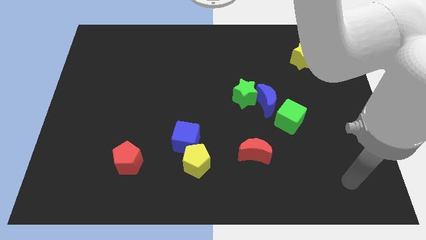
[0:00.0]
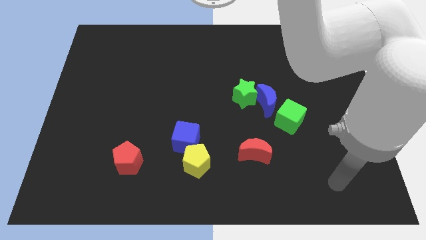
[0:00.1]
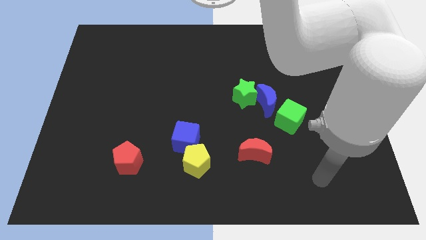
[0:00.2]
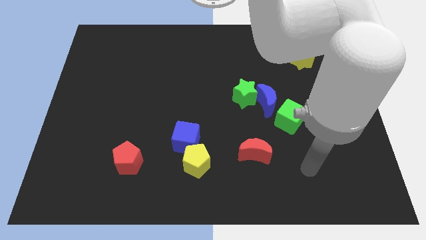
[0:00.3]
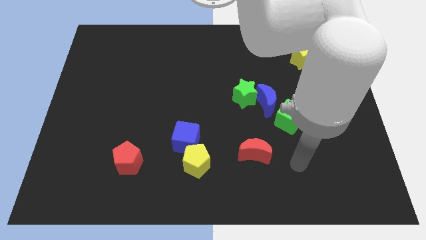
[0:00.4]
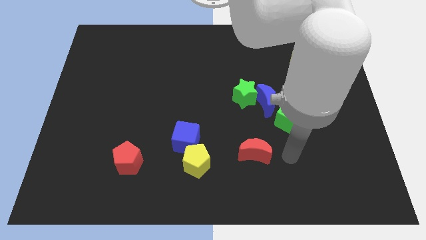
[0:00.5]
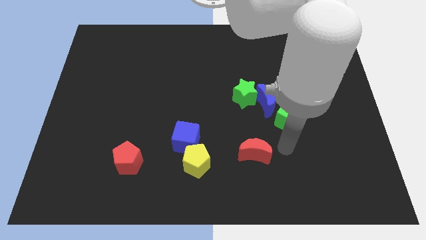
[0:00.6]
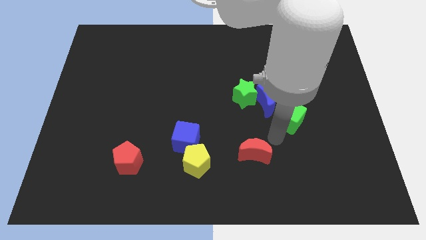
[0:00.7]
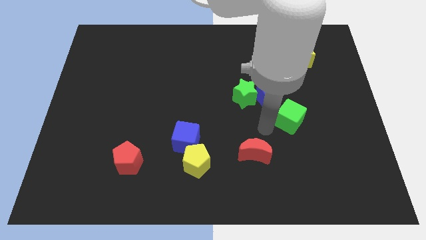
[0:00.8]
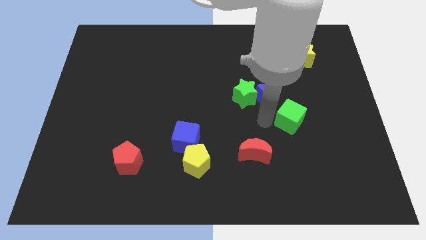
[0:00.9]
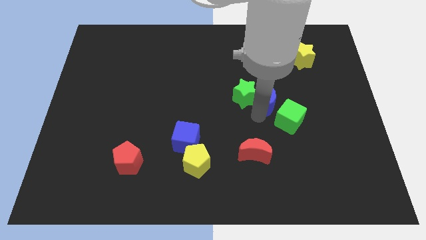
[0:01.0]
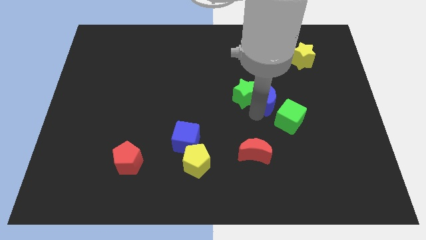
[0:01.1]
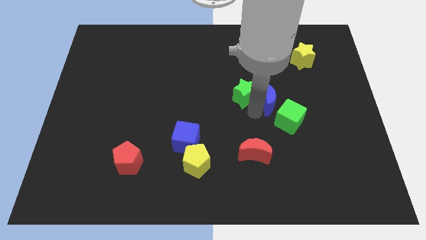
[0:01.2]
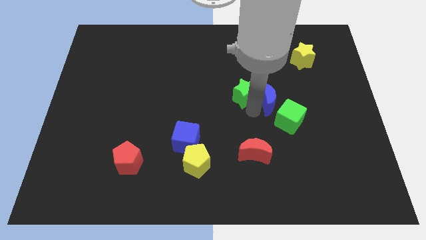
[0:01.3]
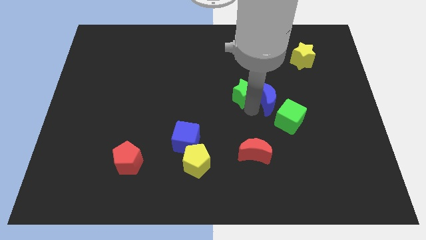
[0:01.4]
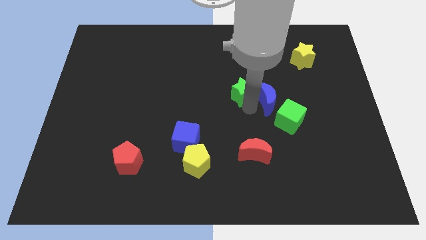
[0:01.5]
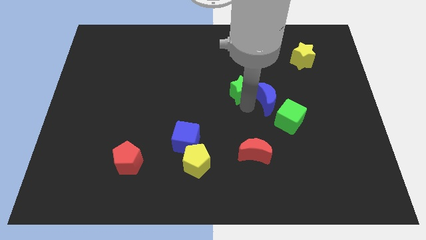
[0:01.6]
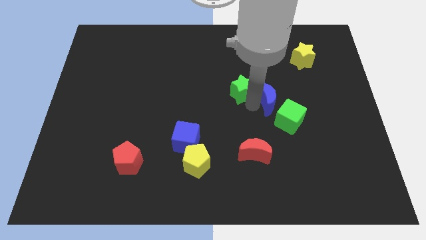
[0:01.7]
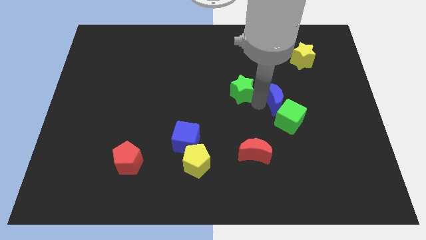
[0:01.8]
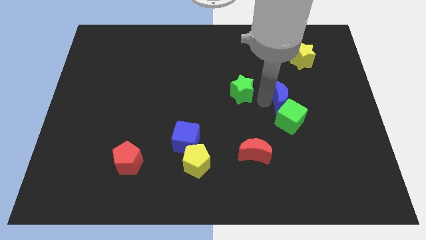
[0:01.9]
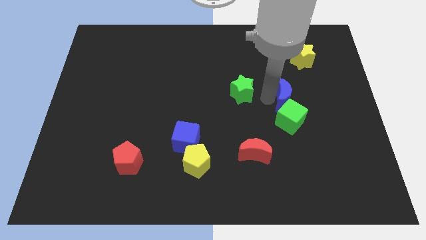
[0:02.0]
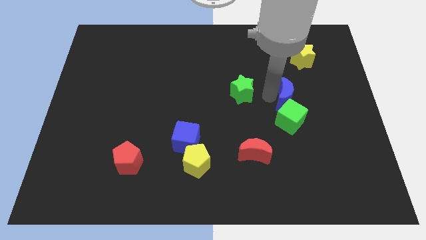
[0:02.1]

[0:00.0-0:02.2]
separate the green star from the blue moon

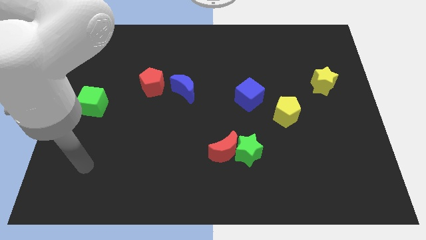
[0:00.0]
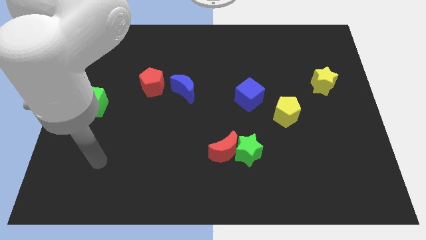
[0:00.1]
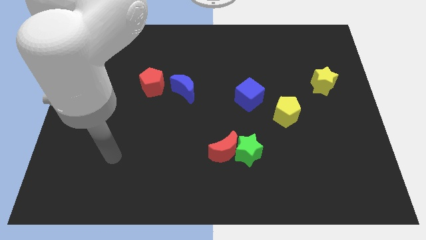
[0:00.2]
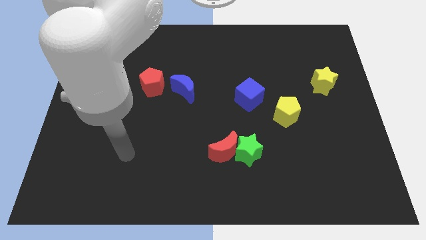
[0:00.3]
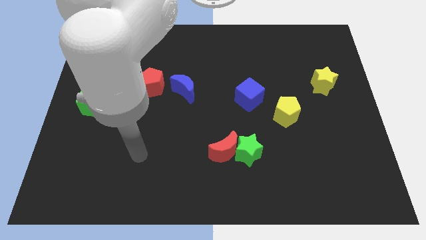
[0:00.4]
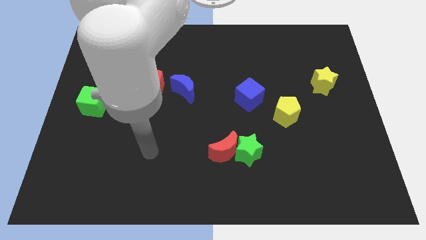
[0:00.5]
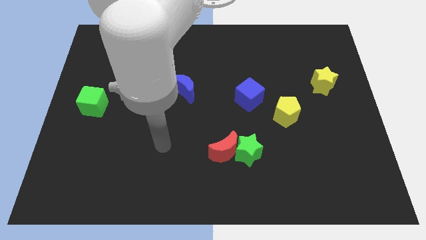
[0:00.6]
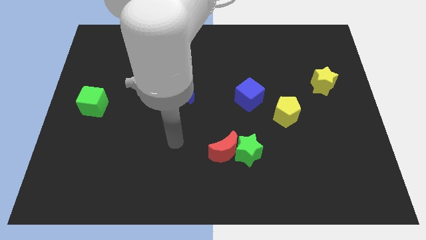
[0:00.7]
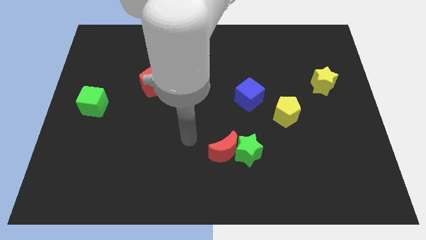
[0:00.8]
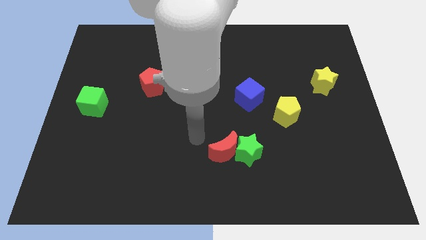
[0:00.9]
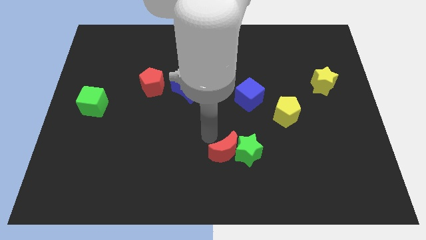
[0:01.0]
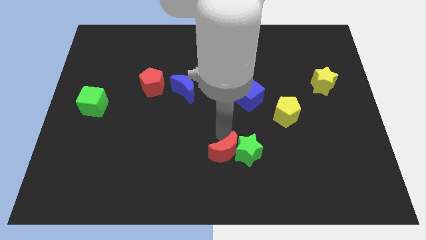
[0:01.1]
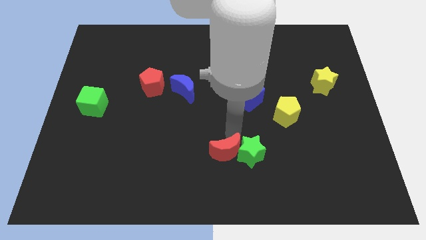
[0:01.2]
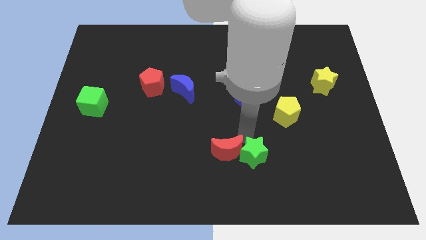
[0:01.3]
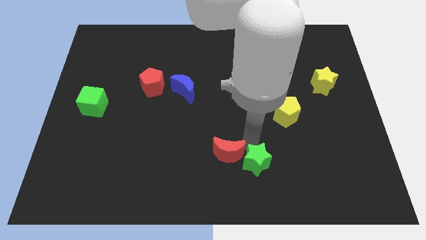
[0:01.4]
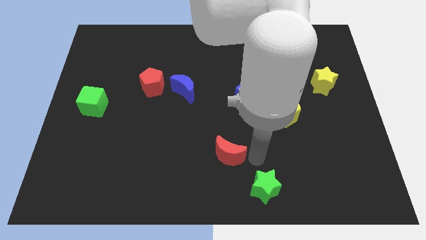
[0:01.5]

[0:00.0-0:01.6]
move the red moon away from the green star

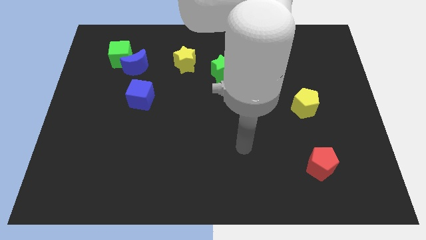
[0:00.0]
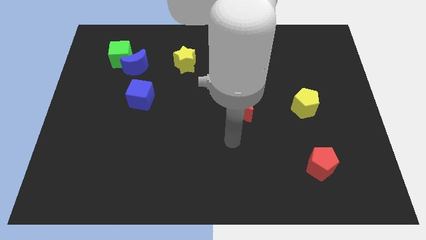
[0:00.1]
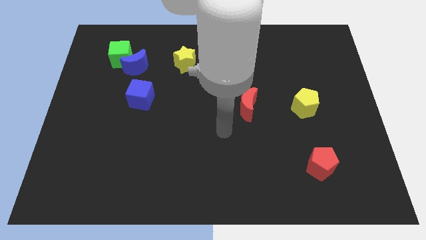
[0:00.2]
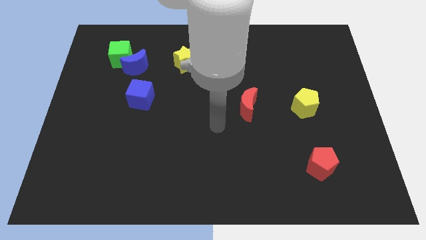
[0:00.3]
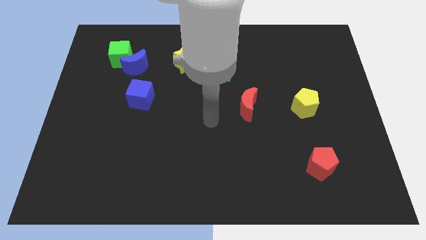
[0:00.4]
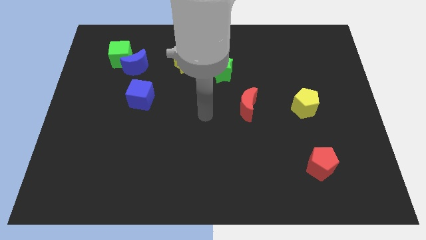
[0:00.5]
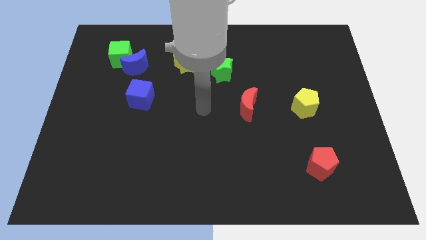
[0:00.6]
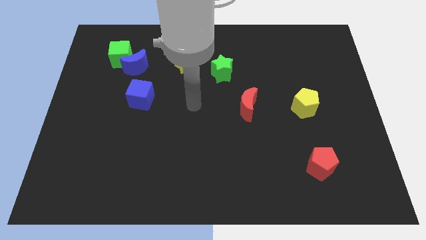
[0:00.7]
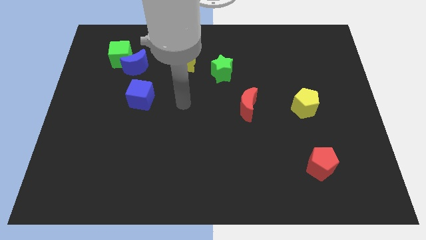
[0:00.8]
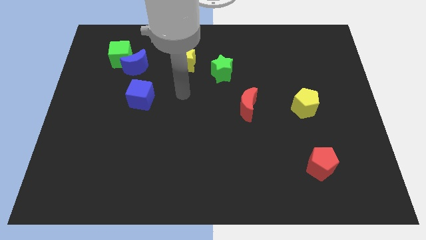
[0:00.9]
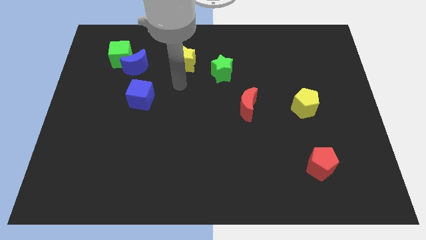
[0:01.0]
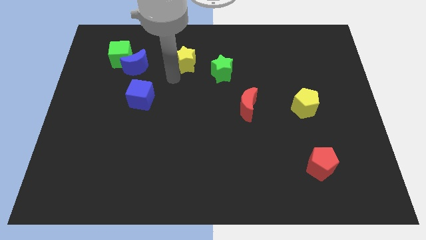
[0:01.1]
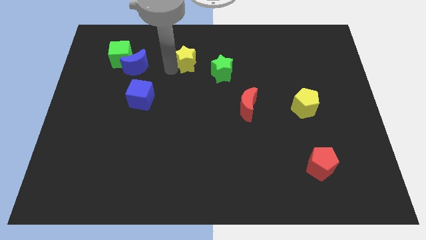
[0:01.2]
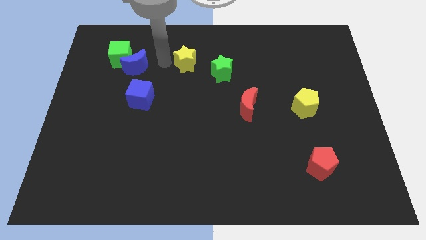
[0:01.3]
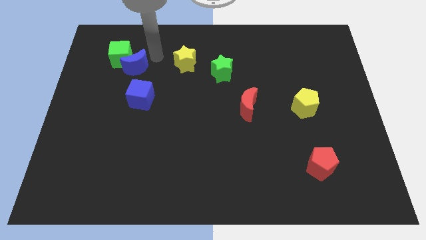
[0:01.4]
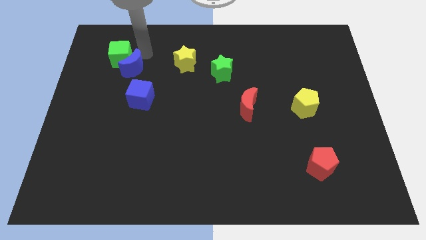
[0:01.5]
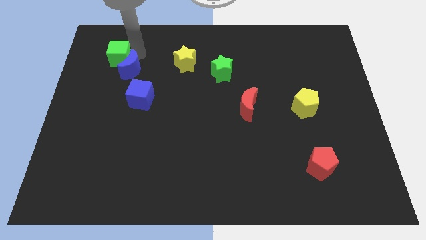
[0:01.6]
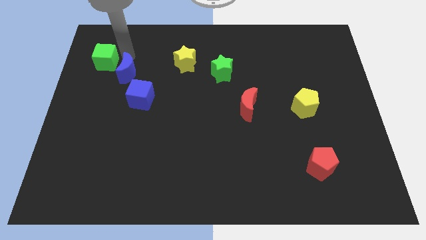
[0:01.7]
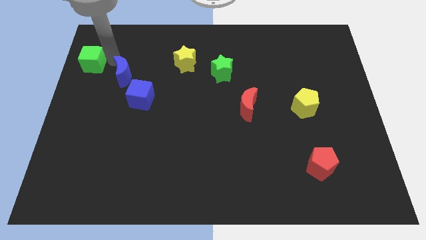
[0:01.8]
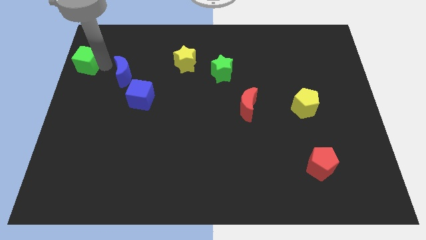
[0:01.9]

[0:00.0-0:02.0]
separate the blue moon from the green cube

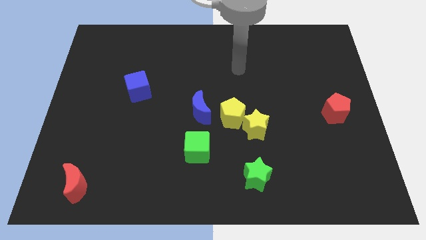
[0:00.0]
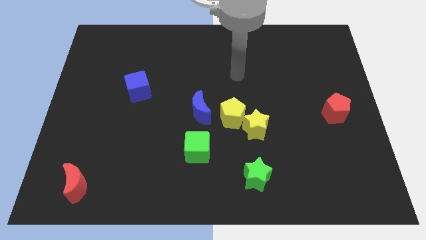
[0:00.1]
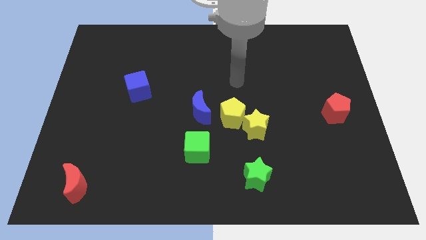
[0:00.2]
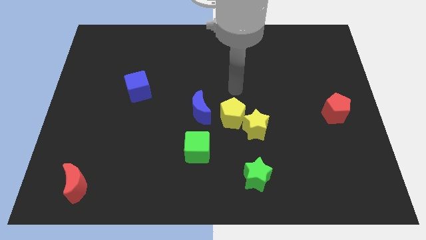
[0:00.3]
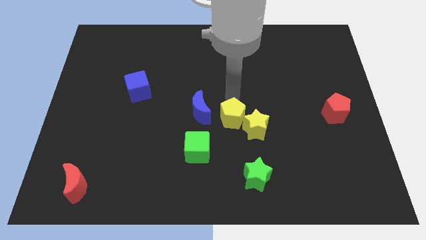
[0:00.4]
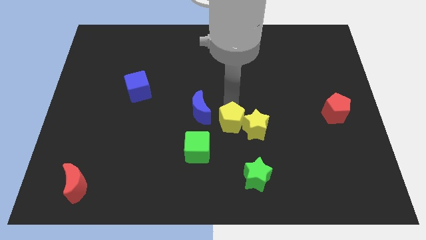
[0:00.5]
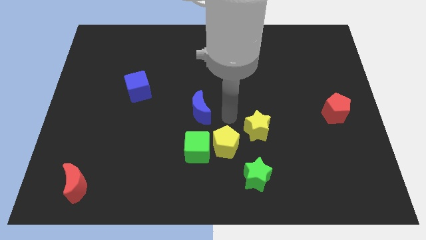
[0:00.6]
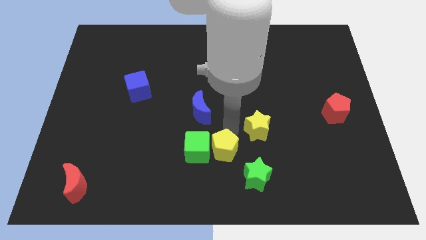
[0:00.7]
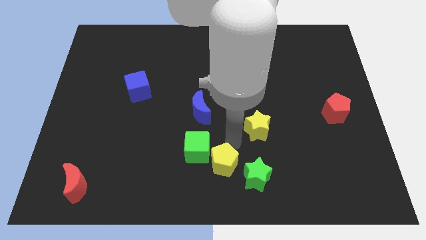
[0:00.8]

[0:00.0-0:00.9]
pull the yellow star apart from the yellow pentagon

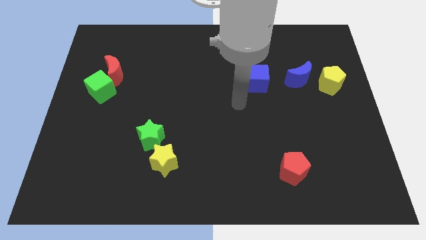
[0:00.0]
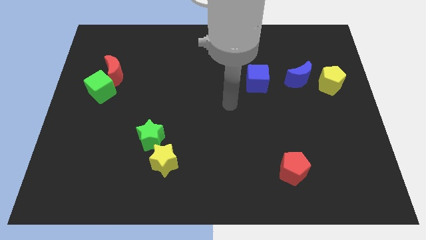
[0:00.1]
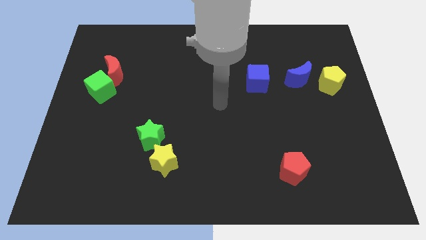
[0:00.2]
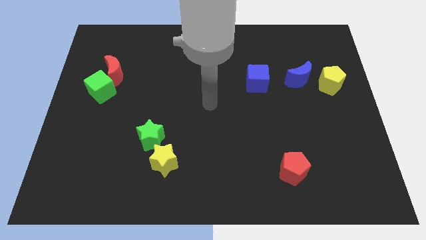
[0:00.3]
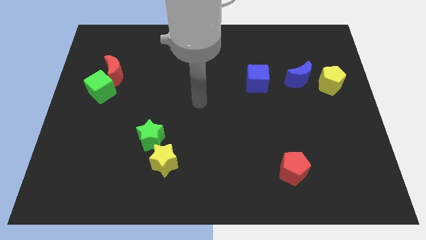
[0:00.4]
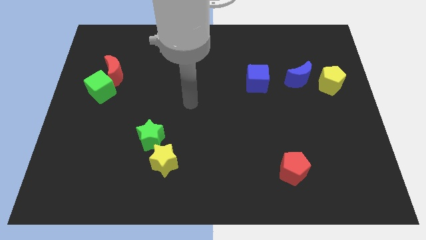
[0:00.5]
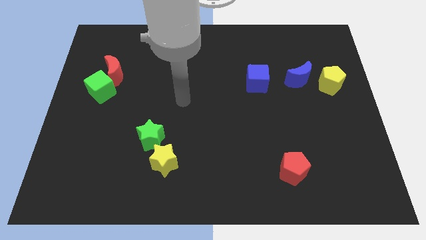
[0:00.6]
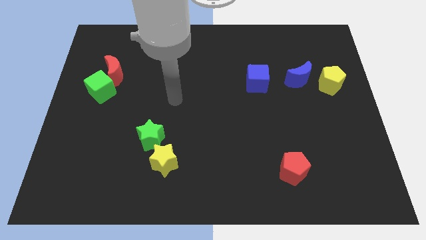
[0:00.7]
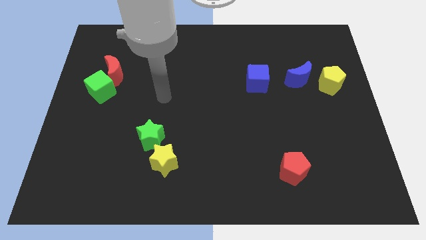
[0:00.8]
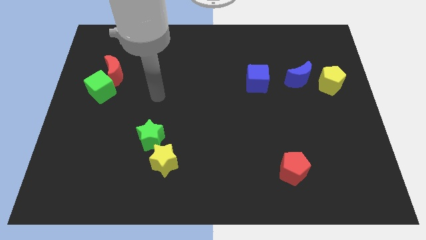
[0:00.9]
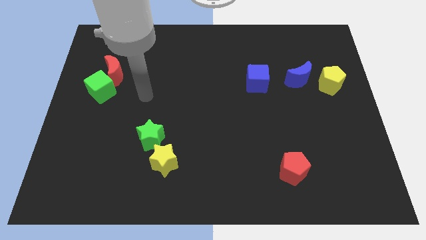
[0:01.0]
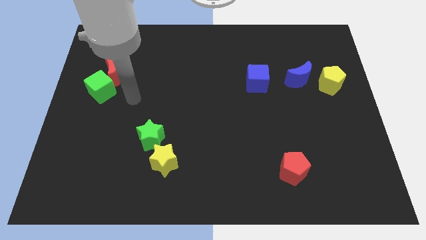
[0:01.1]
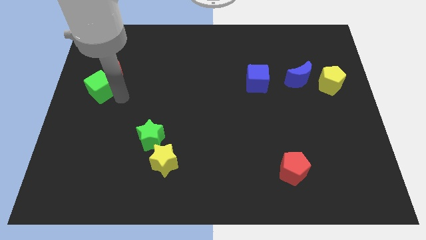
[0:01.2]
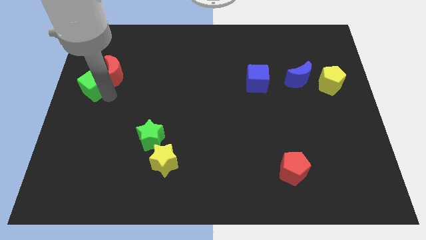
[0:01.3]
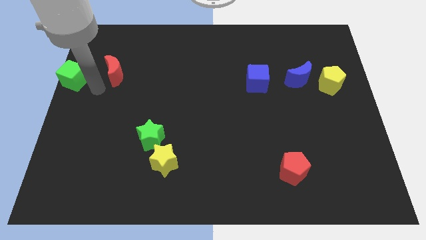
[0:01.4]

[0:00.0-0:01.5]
move the red moon away from the green cube

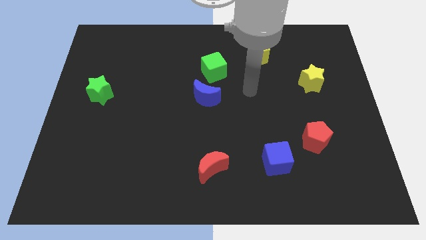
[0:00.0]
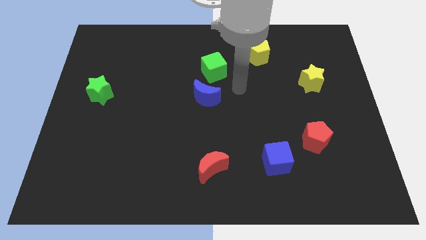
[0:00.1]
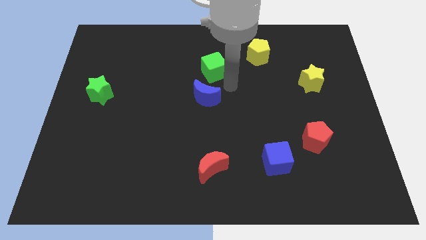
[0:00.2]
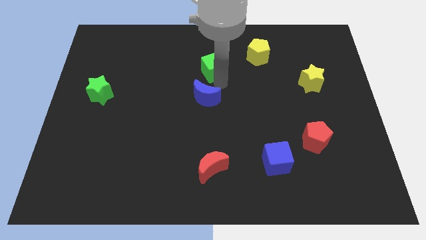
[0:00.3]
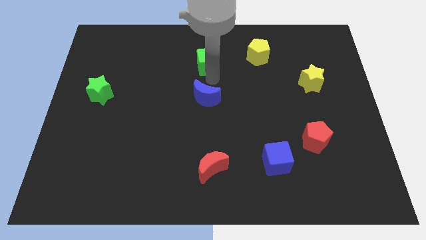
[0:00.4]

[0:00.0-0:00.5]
move the blue moon away from the green cube

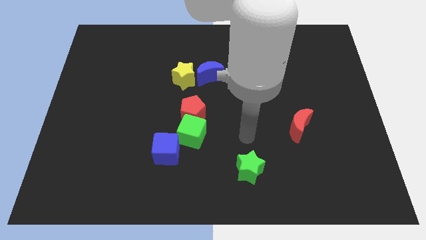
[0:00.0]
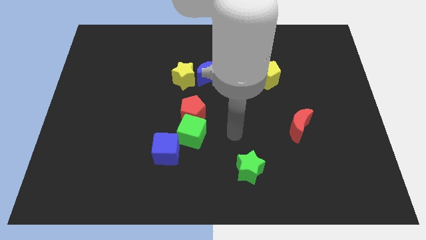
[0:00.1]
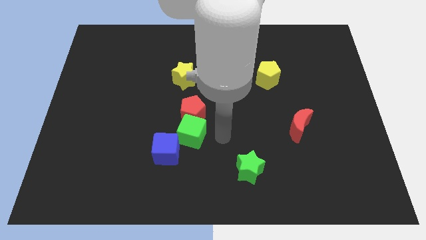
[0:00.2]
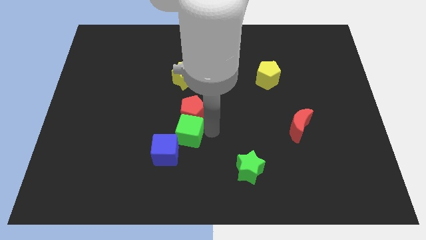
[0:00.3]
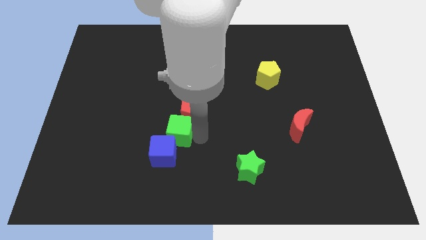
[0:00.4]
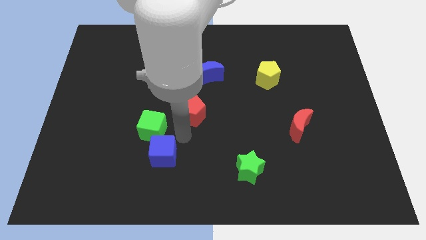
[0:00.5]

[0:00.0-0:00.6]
move the red pentagon away from the green cube
